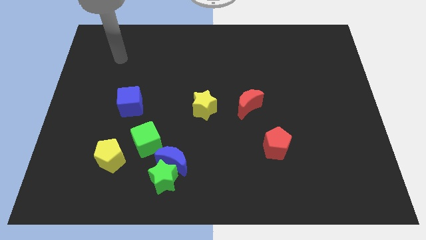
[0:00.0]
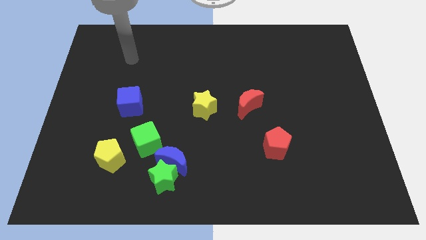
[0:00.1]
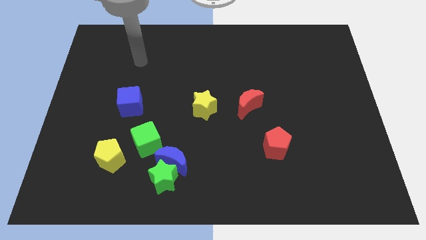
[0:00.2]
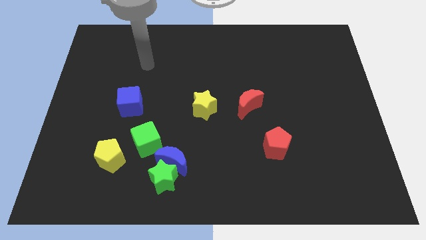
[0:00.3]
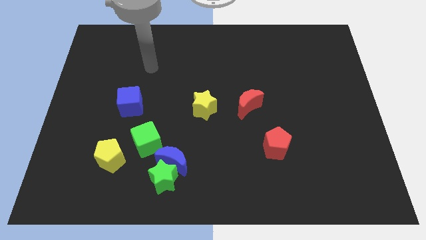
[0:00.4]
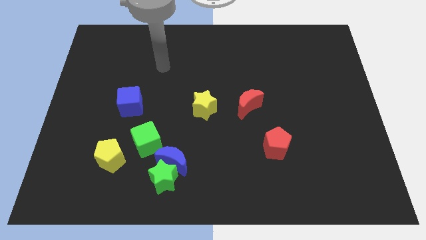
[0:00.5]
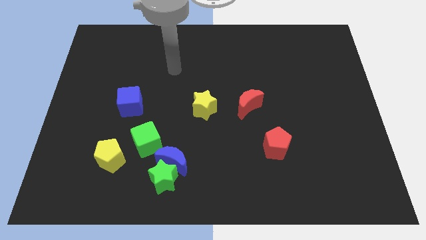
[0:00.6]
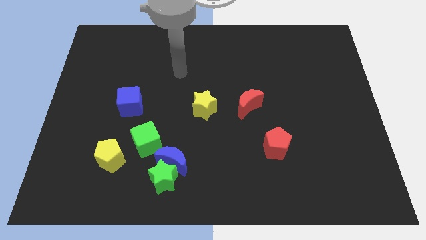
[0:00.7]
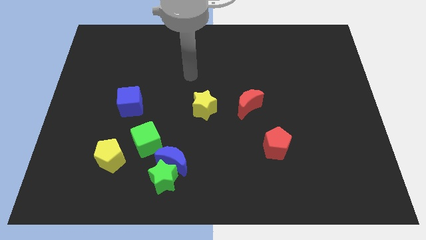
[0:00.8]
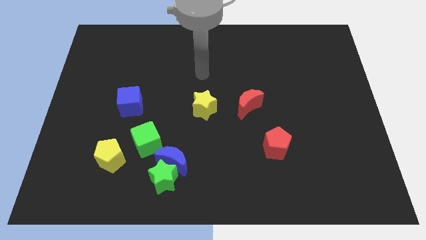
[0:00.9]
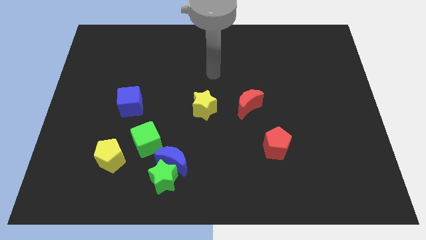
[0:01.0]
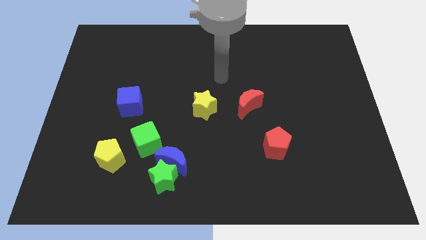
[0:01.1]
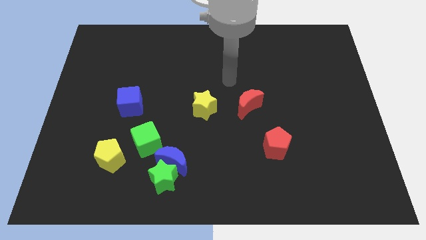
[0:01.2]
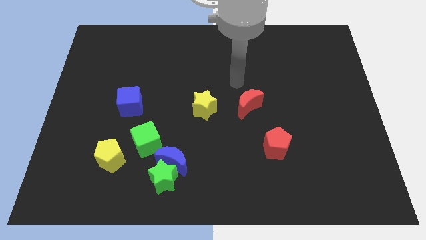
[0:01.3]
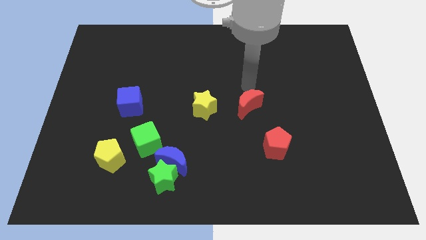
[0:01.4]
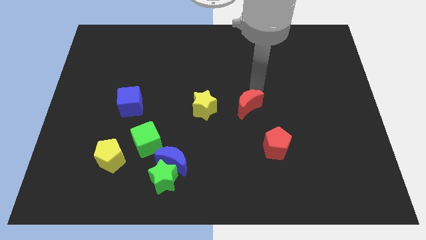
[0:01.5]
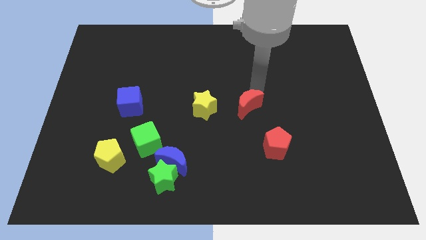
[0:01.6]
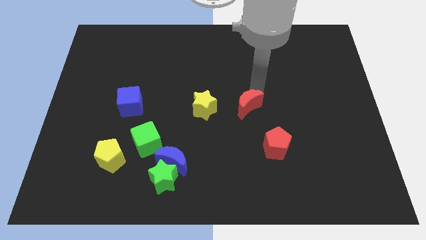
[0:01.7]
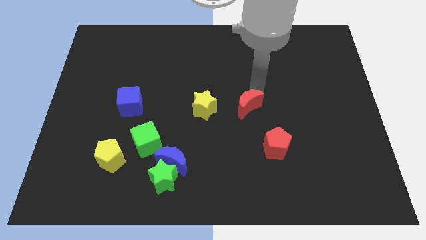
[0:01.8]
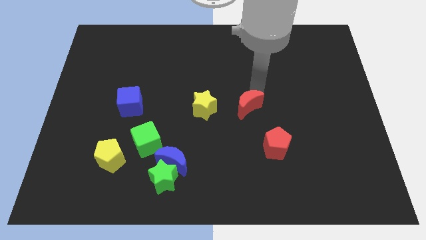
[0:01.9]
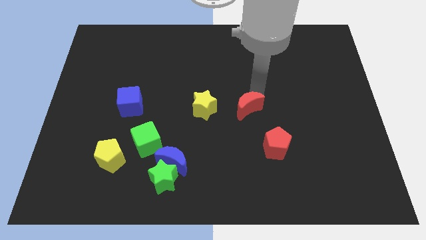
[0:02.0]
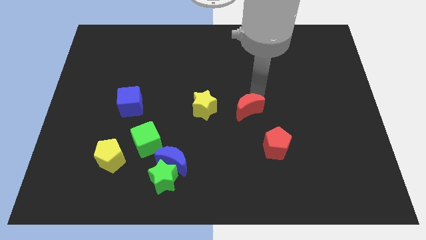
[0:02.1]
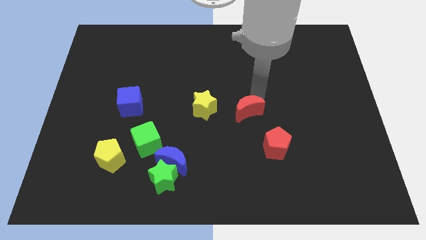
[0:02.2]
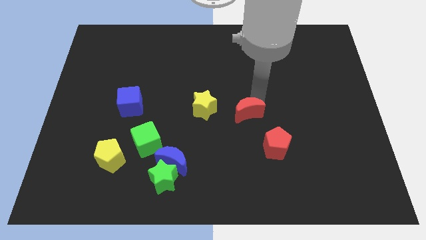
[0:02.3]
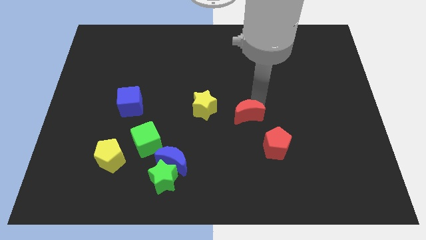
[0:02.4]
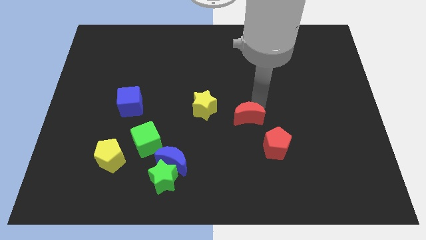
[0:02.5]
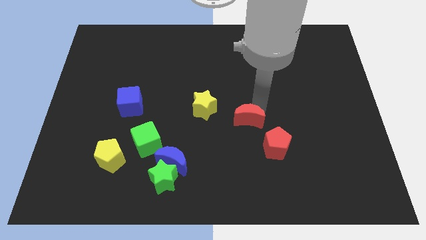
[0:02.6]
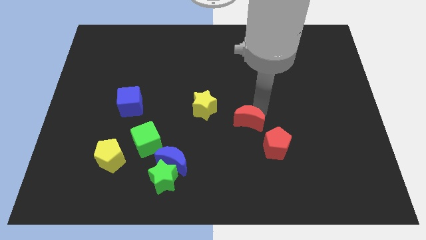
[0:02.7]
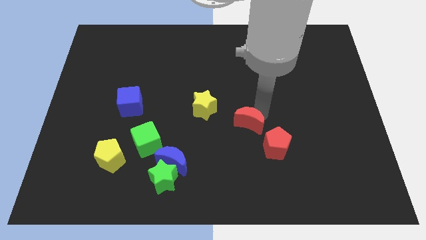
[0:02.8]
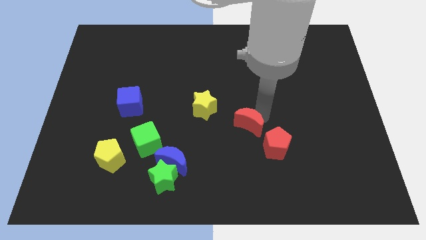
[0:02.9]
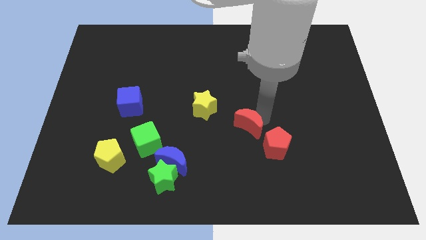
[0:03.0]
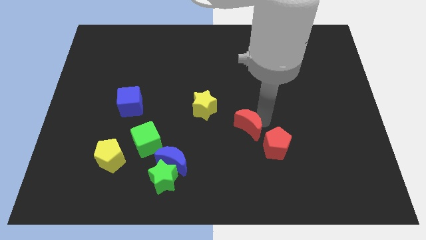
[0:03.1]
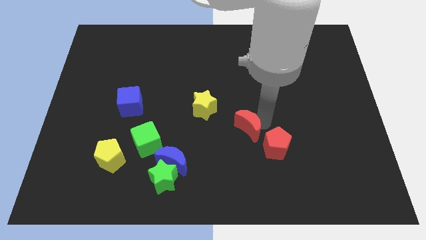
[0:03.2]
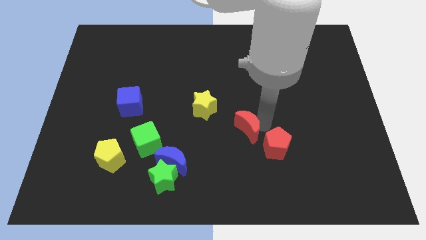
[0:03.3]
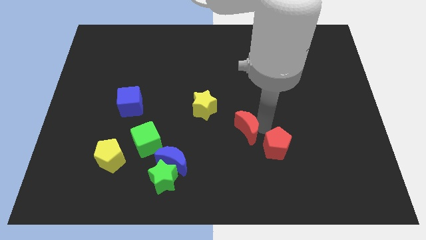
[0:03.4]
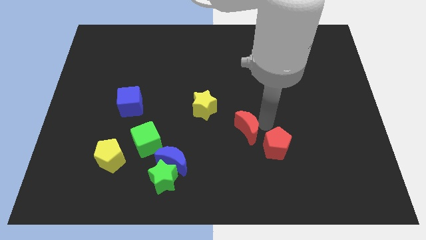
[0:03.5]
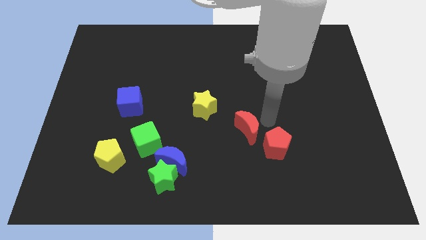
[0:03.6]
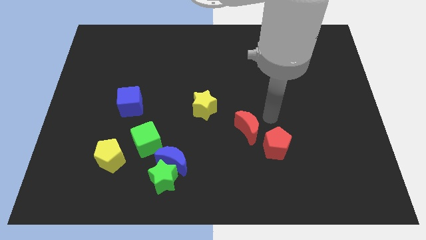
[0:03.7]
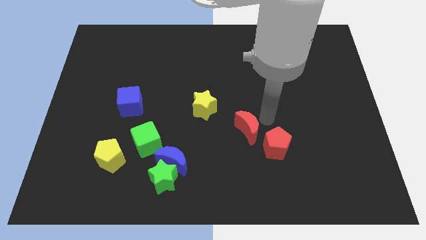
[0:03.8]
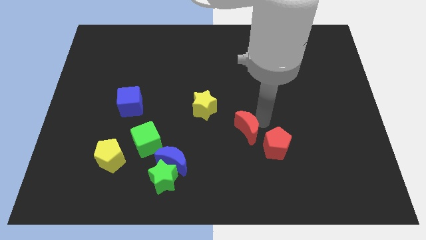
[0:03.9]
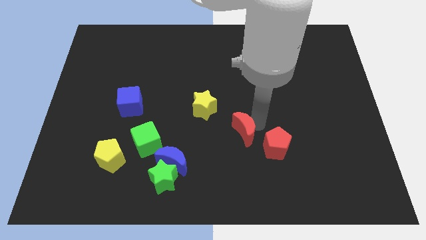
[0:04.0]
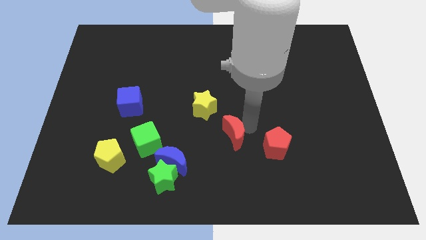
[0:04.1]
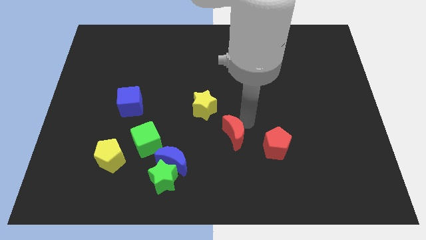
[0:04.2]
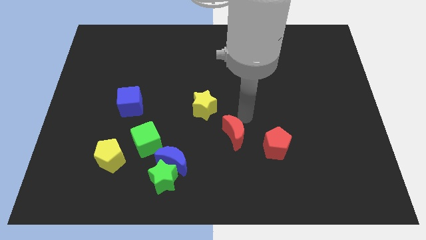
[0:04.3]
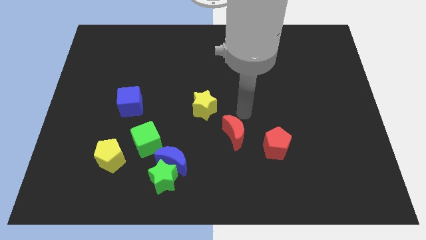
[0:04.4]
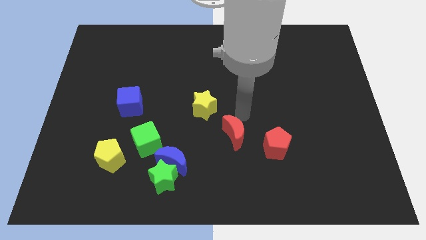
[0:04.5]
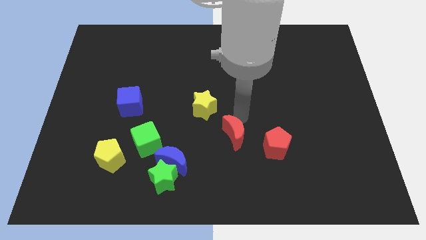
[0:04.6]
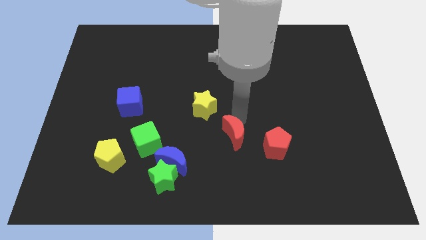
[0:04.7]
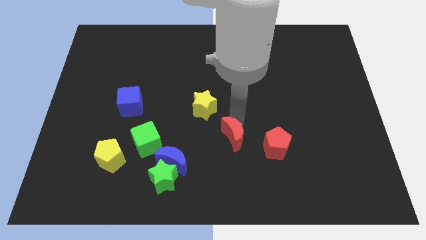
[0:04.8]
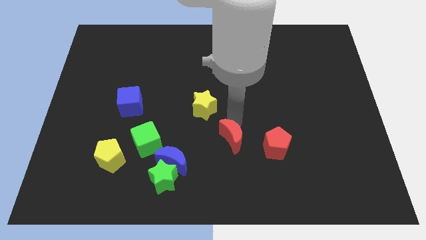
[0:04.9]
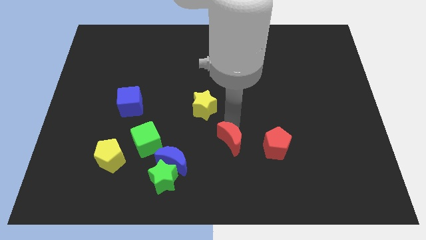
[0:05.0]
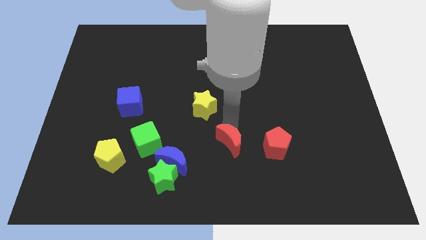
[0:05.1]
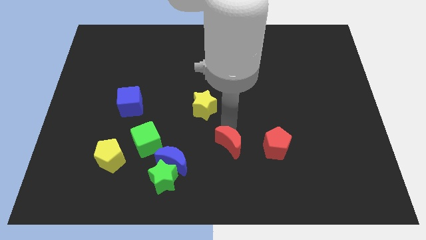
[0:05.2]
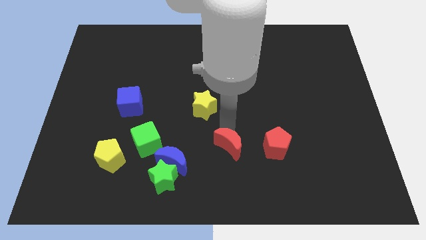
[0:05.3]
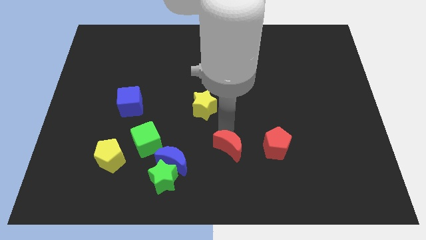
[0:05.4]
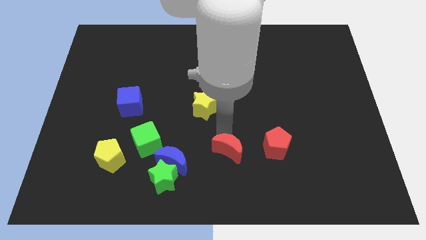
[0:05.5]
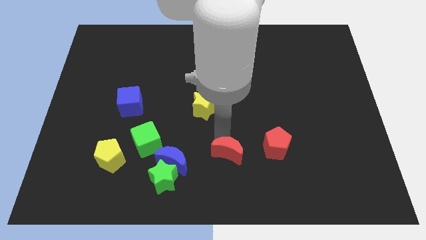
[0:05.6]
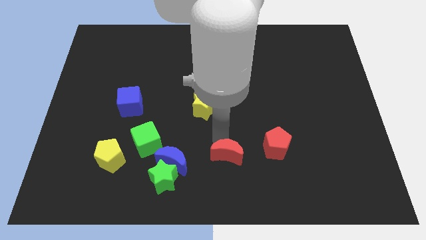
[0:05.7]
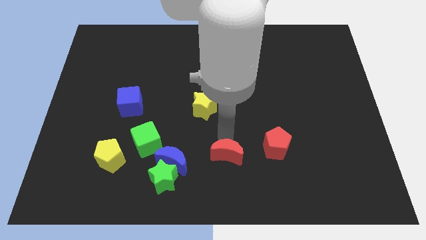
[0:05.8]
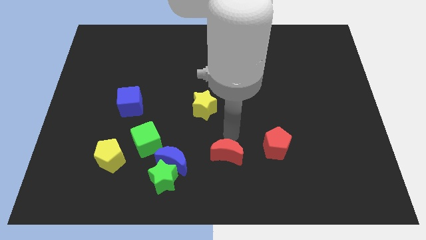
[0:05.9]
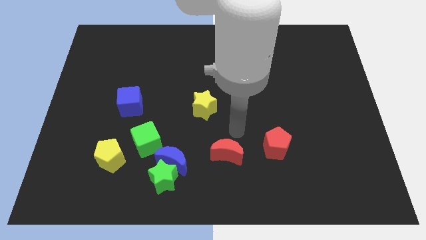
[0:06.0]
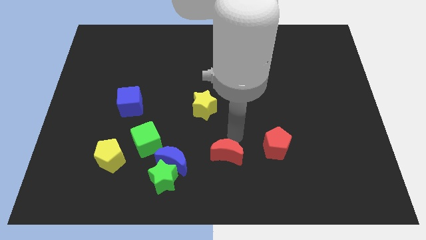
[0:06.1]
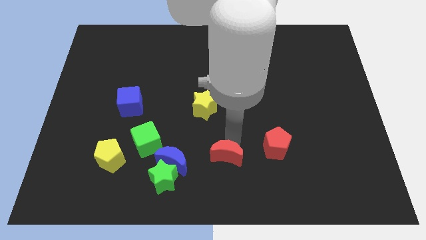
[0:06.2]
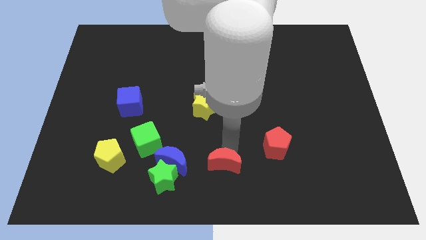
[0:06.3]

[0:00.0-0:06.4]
push the red moon to the right of the green star

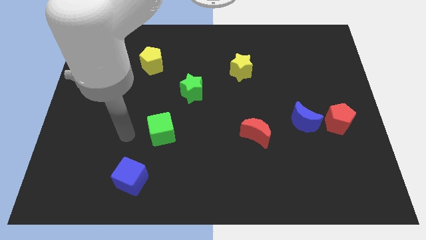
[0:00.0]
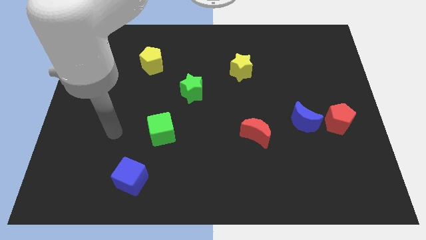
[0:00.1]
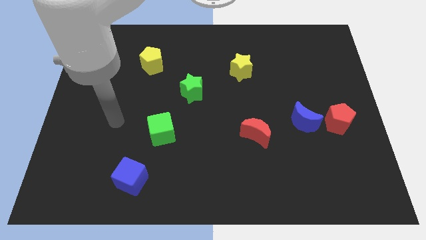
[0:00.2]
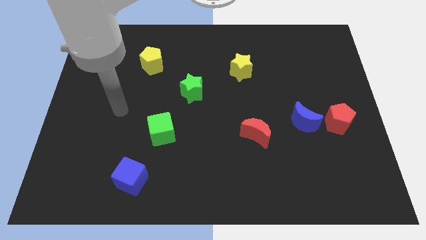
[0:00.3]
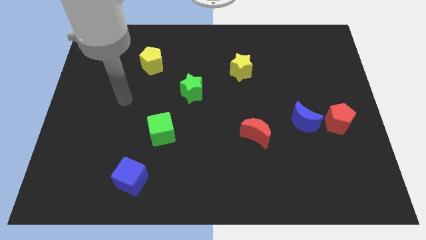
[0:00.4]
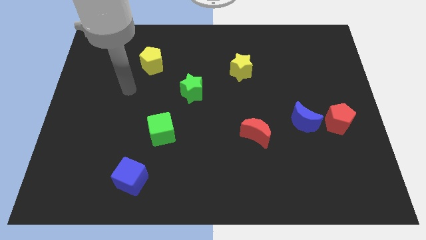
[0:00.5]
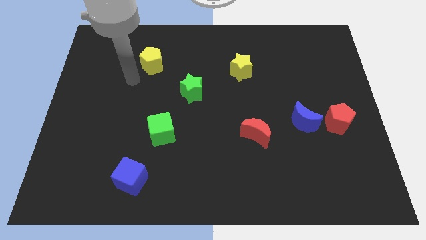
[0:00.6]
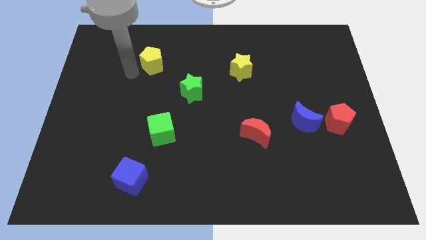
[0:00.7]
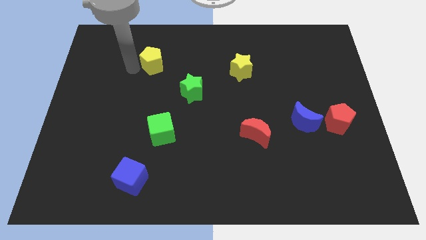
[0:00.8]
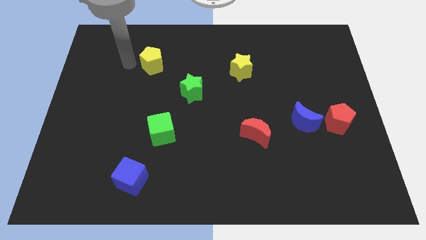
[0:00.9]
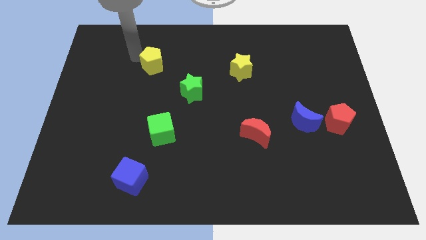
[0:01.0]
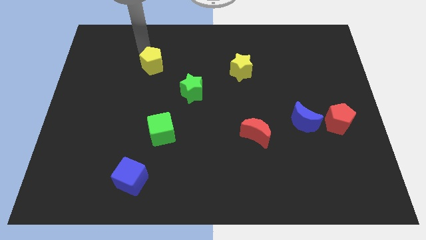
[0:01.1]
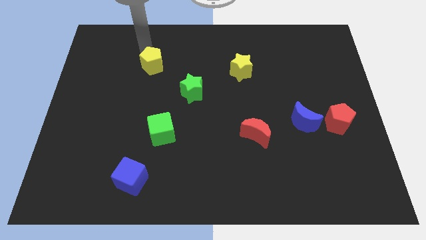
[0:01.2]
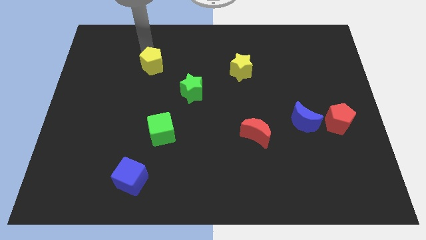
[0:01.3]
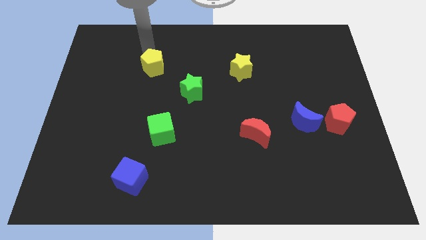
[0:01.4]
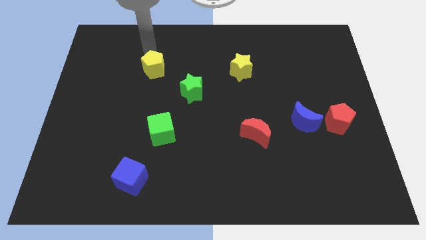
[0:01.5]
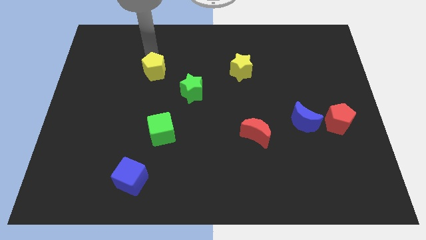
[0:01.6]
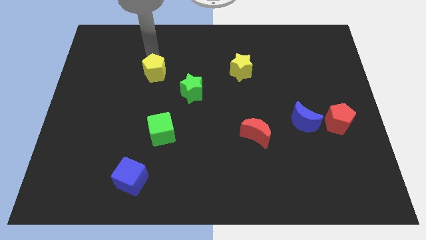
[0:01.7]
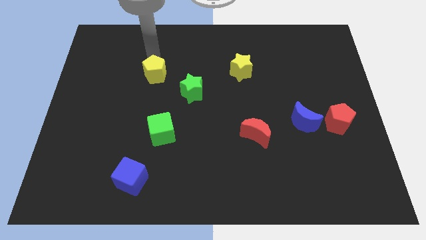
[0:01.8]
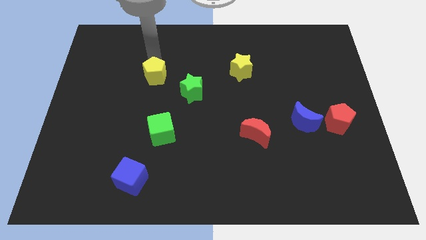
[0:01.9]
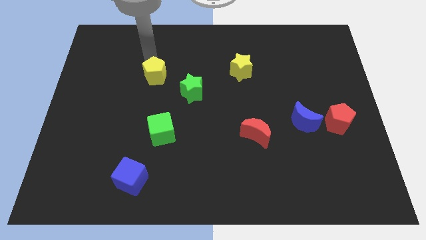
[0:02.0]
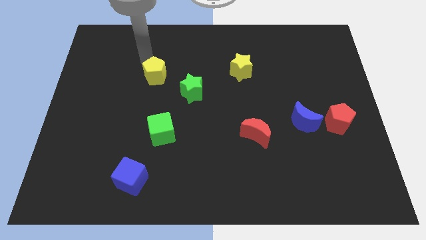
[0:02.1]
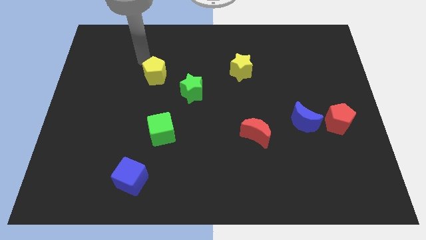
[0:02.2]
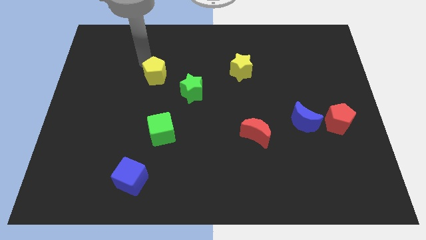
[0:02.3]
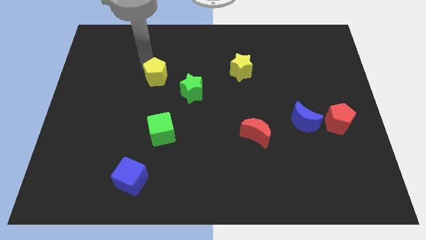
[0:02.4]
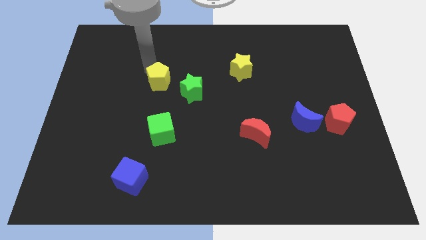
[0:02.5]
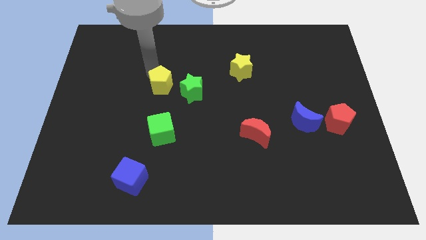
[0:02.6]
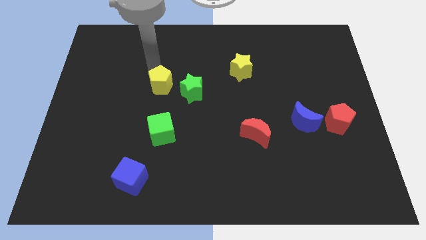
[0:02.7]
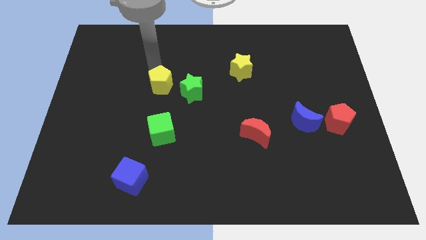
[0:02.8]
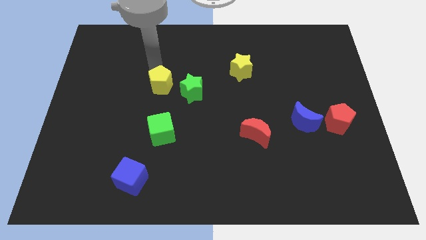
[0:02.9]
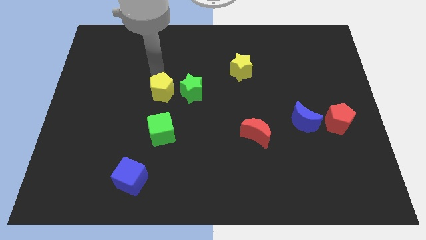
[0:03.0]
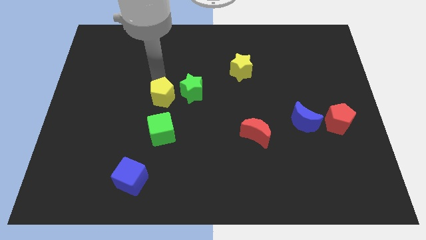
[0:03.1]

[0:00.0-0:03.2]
put the yellow pentagon to the bottom left of the green star
